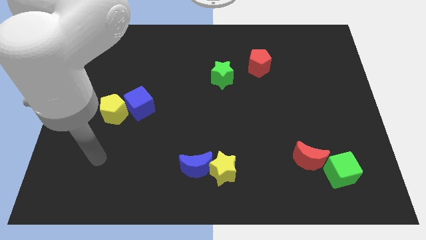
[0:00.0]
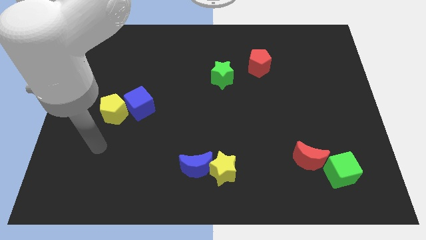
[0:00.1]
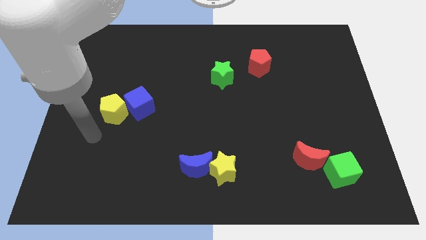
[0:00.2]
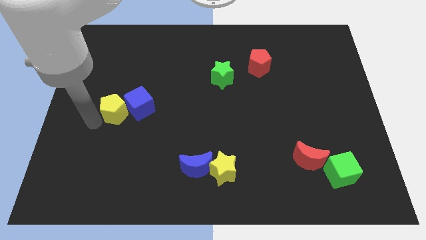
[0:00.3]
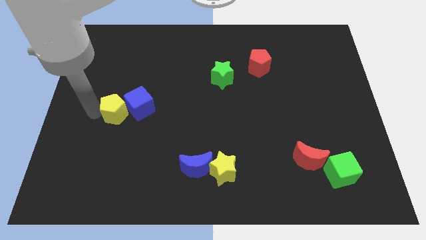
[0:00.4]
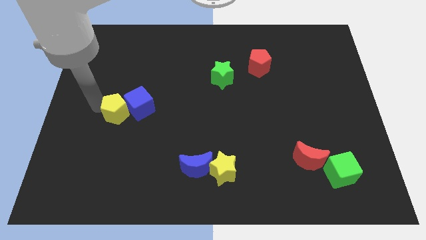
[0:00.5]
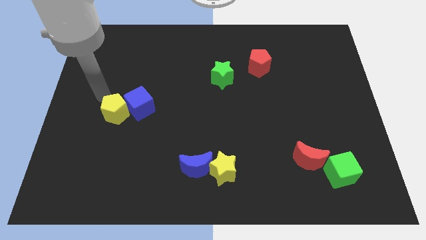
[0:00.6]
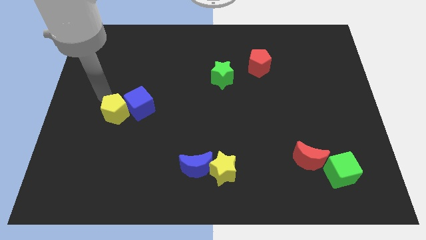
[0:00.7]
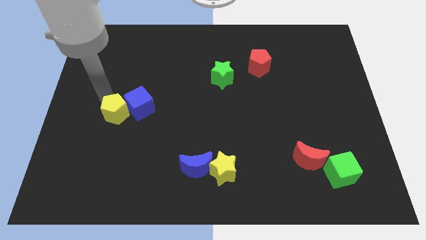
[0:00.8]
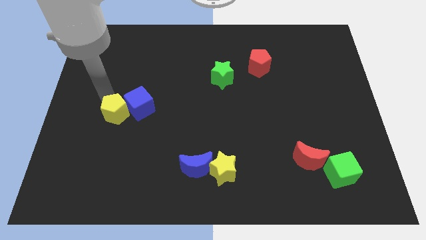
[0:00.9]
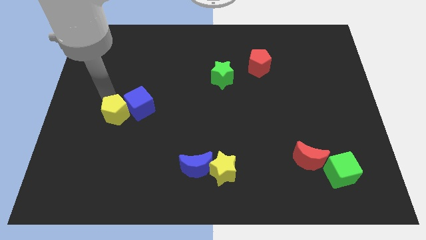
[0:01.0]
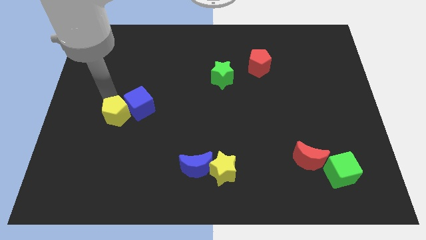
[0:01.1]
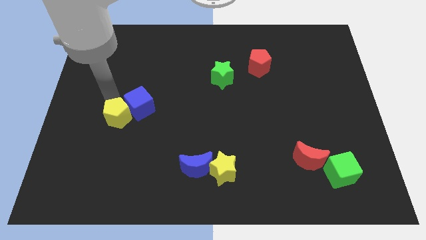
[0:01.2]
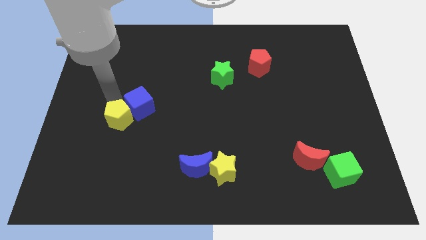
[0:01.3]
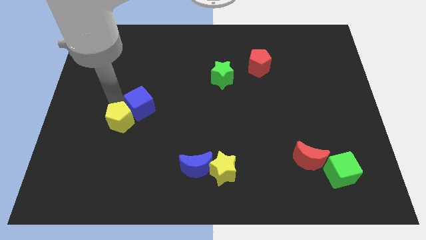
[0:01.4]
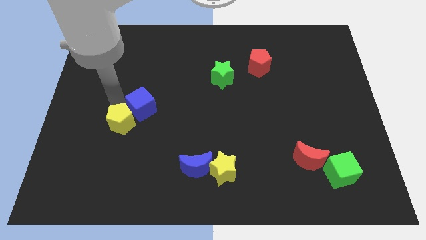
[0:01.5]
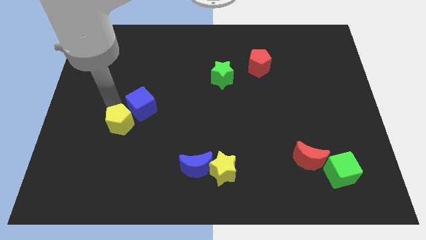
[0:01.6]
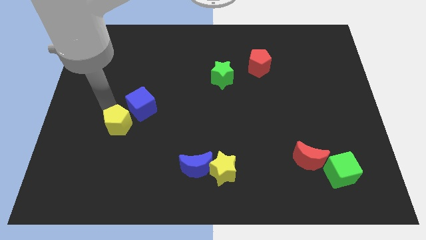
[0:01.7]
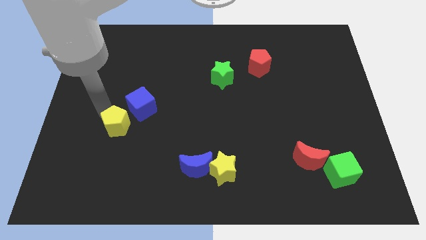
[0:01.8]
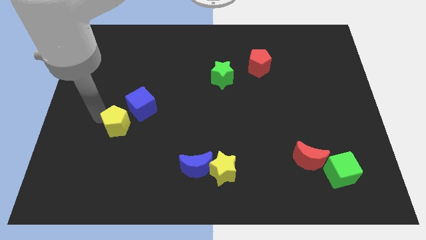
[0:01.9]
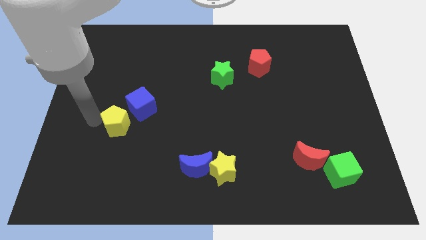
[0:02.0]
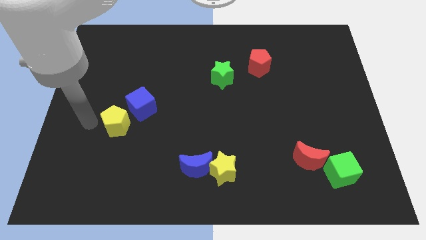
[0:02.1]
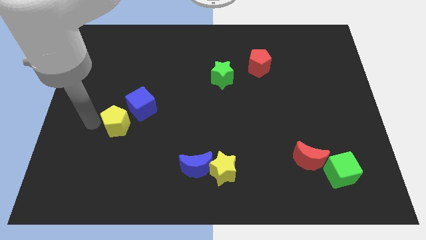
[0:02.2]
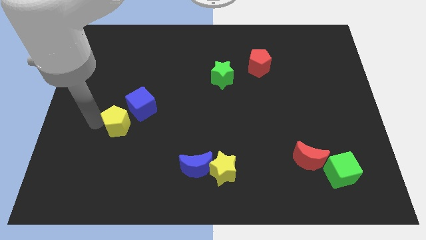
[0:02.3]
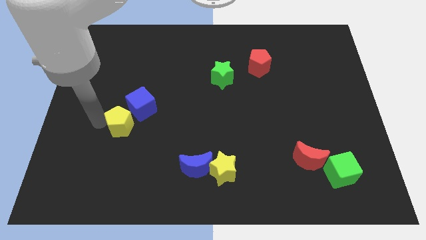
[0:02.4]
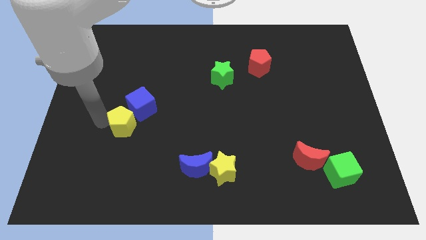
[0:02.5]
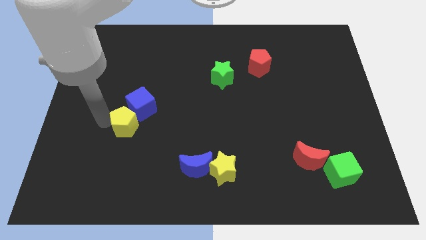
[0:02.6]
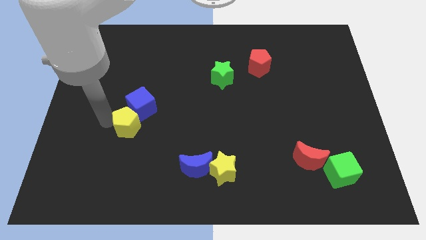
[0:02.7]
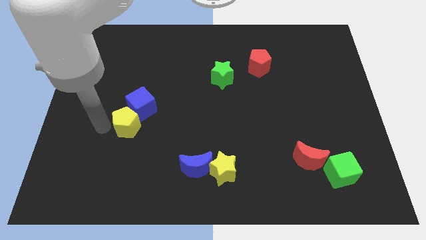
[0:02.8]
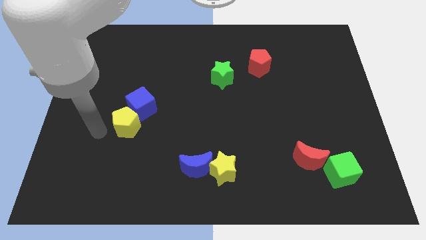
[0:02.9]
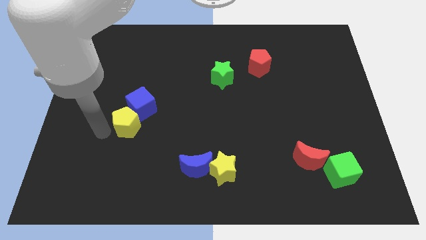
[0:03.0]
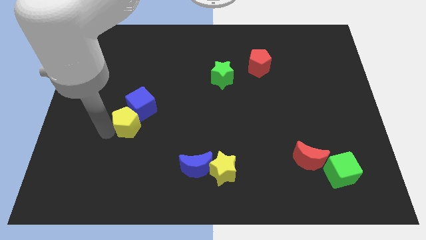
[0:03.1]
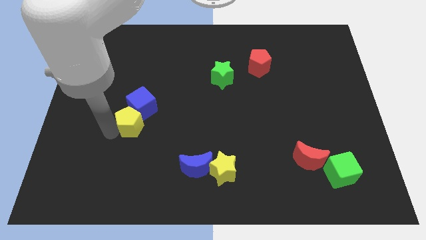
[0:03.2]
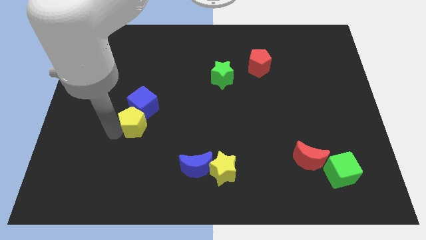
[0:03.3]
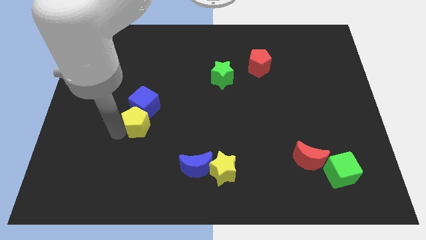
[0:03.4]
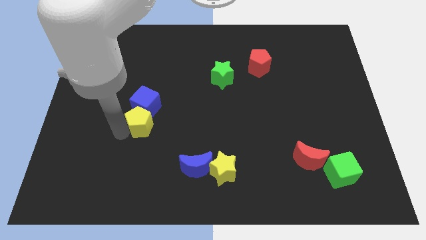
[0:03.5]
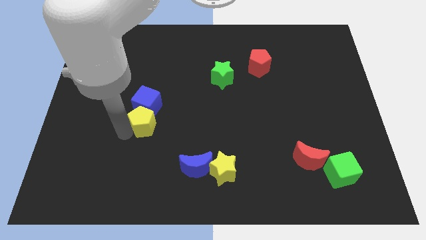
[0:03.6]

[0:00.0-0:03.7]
move the yellow pentagon to the right somewhat

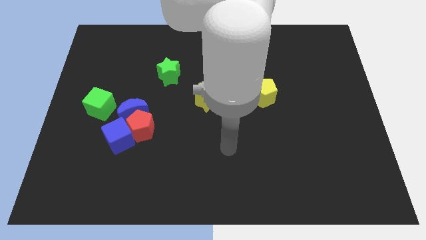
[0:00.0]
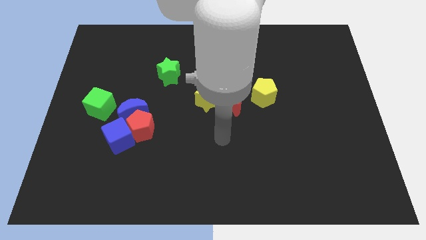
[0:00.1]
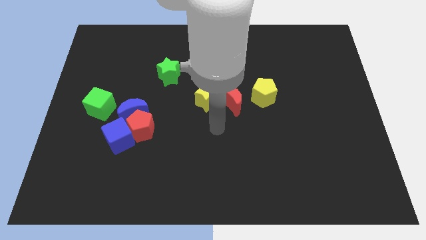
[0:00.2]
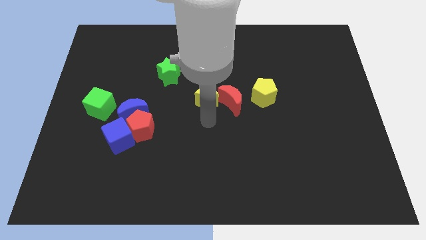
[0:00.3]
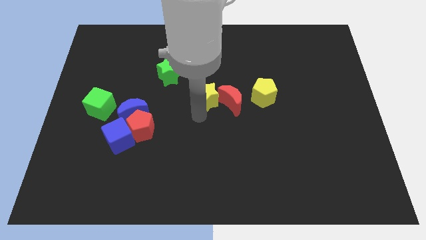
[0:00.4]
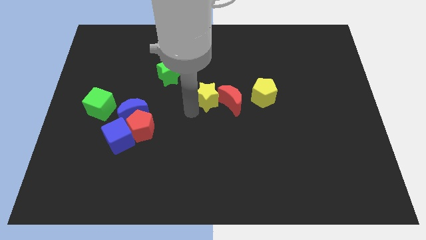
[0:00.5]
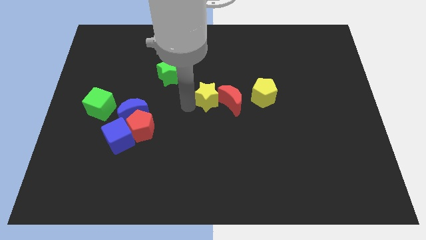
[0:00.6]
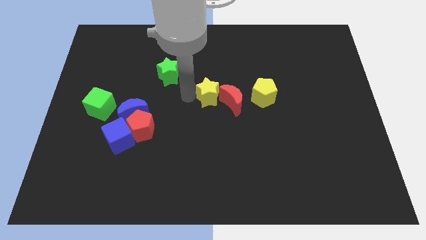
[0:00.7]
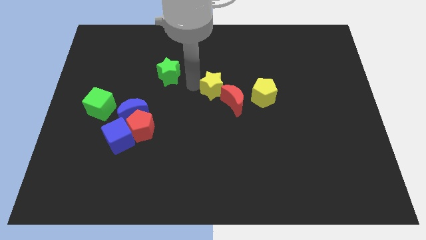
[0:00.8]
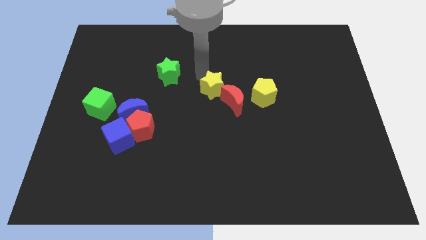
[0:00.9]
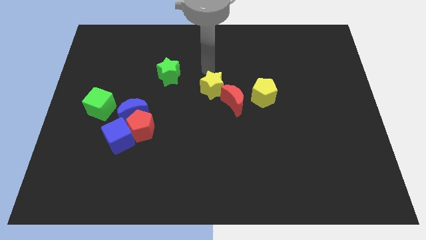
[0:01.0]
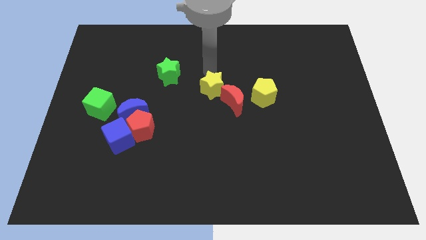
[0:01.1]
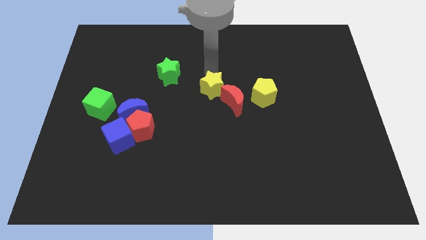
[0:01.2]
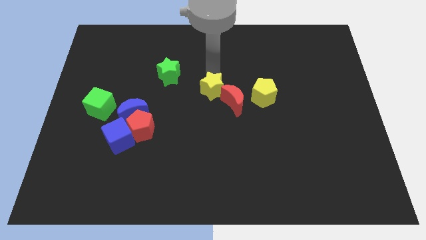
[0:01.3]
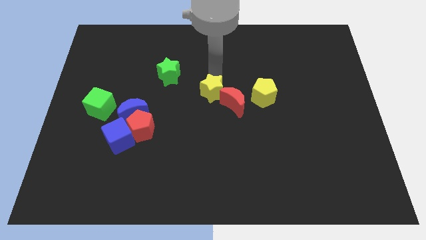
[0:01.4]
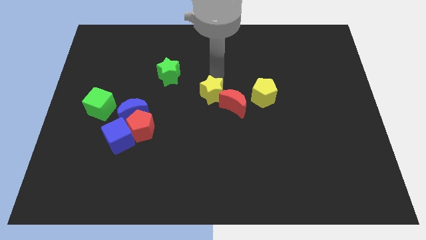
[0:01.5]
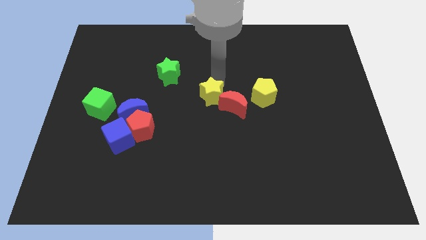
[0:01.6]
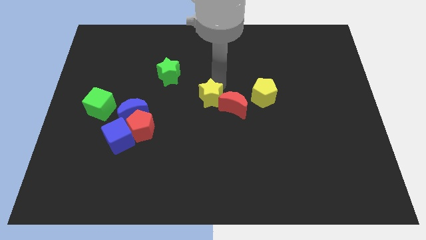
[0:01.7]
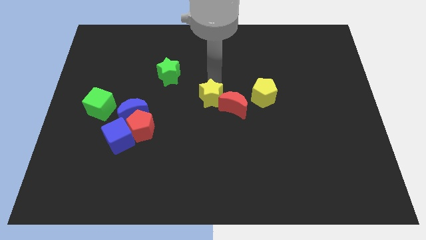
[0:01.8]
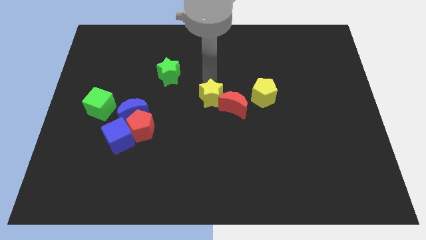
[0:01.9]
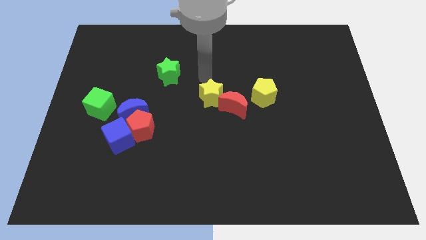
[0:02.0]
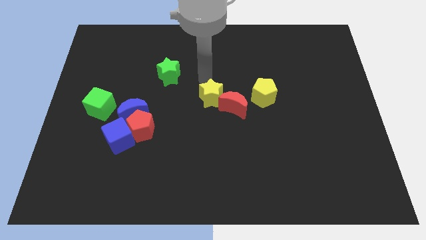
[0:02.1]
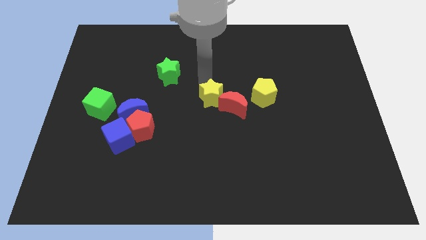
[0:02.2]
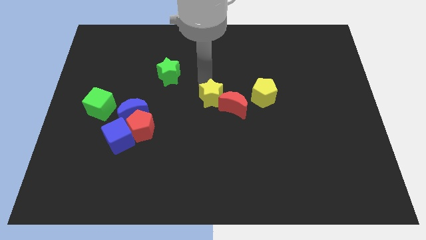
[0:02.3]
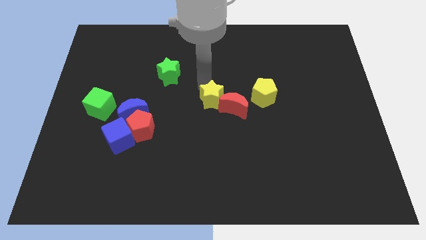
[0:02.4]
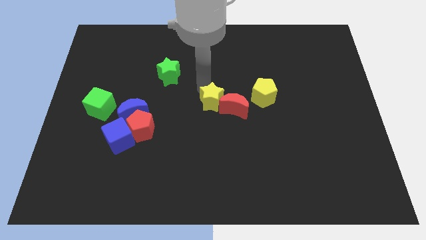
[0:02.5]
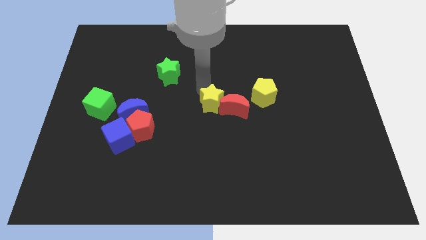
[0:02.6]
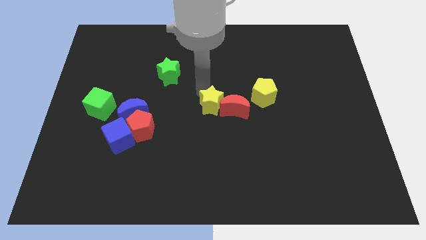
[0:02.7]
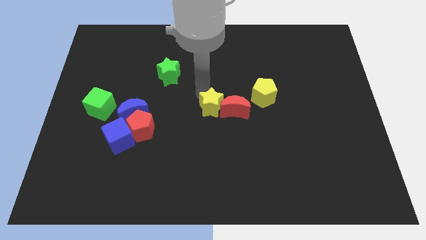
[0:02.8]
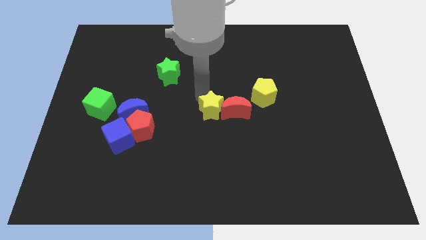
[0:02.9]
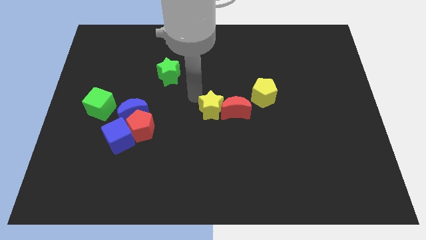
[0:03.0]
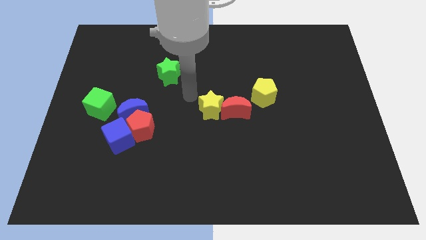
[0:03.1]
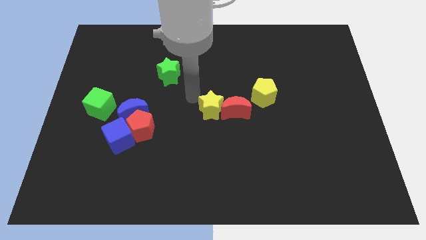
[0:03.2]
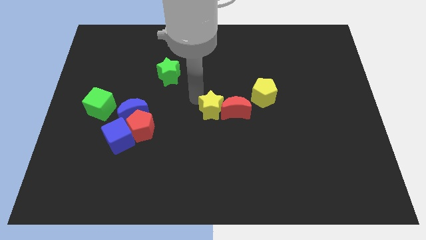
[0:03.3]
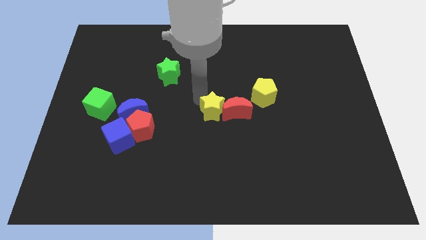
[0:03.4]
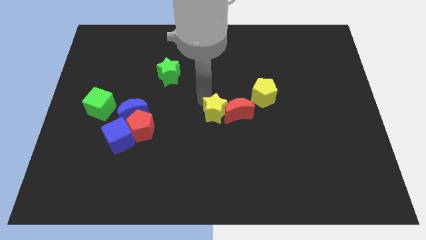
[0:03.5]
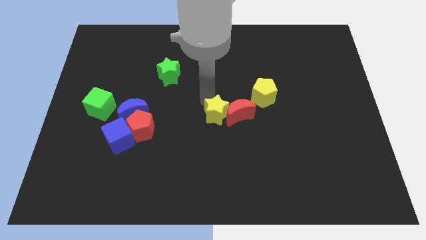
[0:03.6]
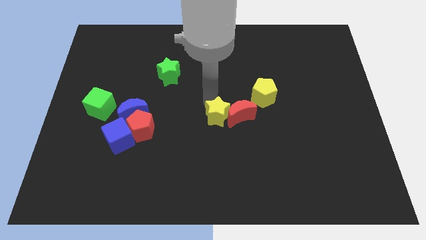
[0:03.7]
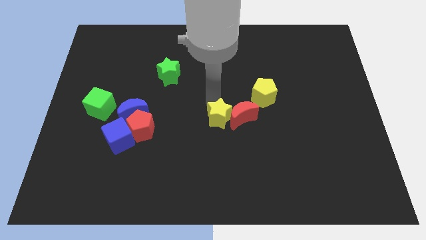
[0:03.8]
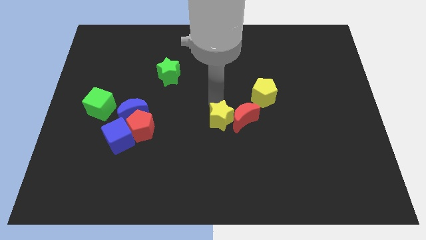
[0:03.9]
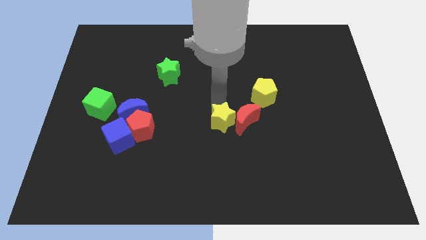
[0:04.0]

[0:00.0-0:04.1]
slightly push the yellow star downwards and right diagonally
